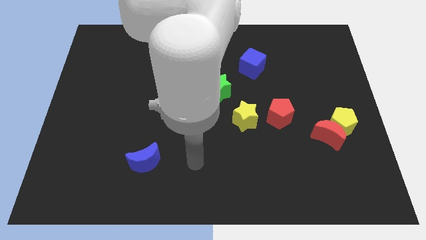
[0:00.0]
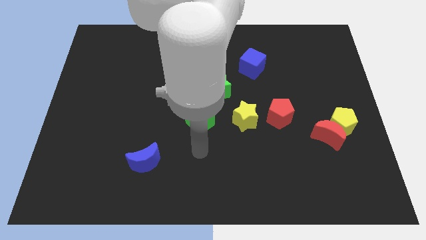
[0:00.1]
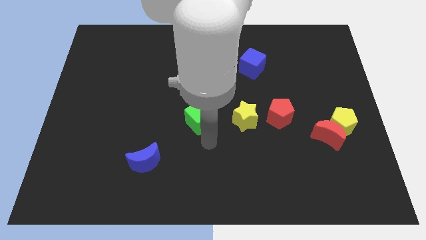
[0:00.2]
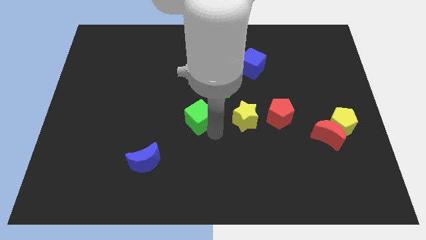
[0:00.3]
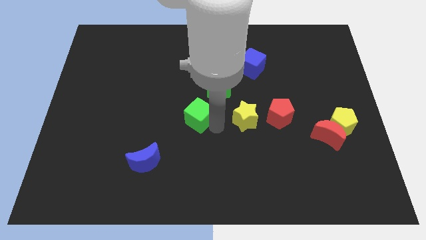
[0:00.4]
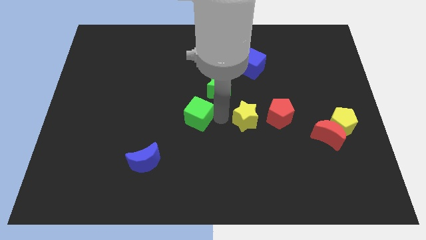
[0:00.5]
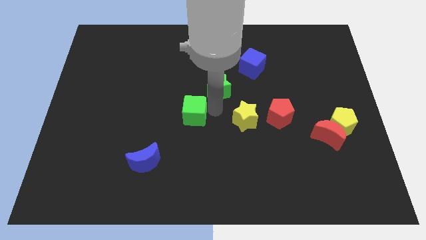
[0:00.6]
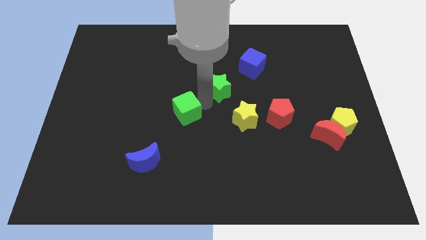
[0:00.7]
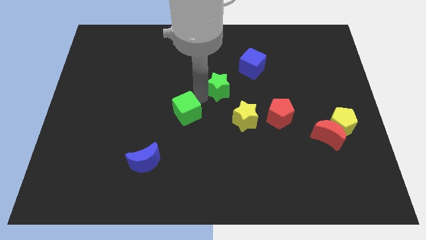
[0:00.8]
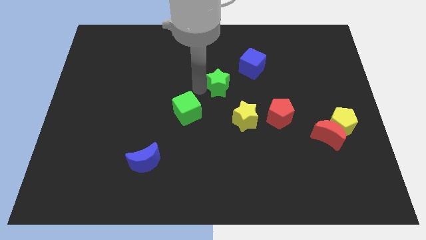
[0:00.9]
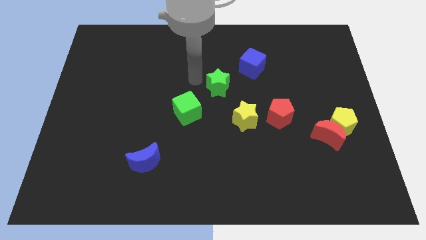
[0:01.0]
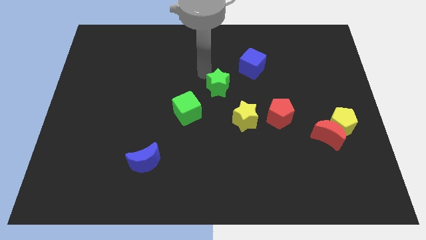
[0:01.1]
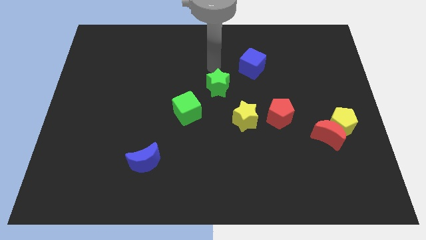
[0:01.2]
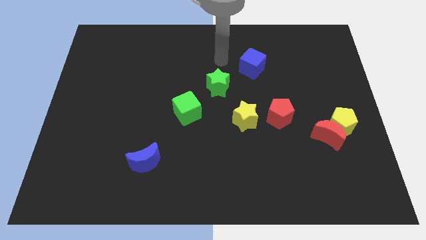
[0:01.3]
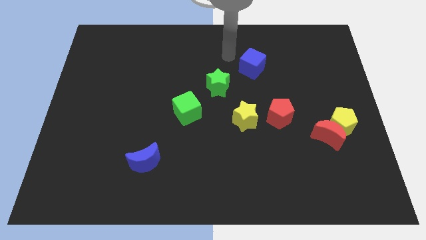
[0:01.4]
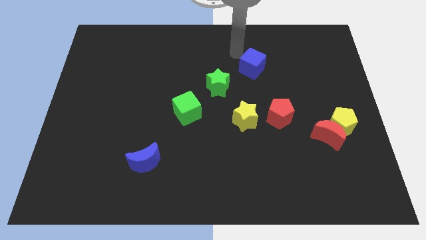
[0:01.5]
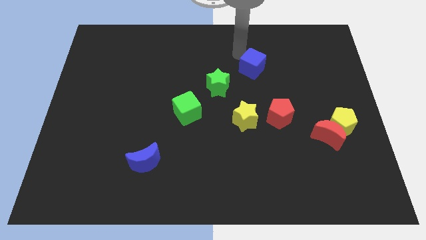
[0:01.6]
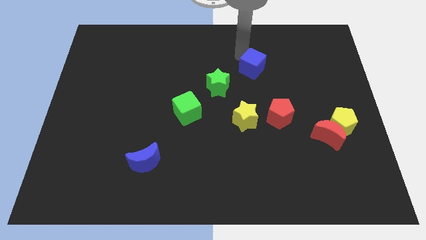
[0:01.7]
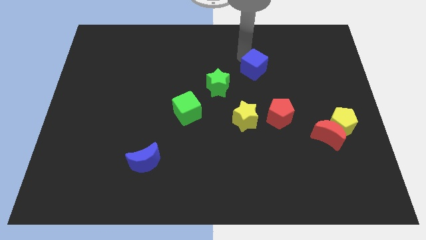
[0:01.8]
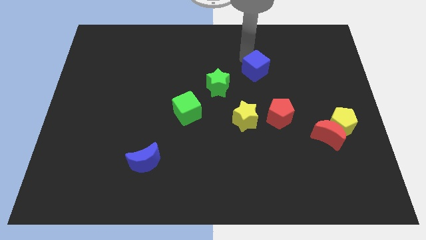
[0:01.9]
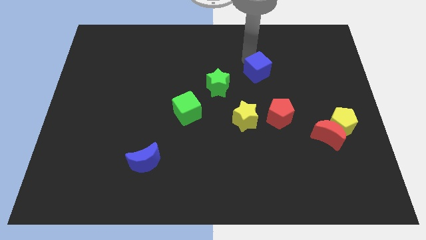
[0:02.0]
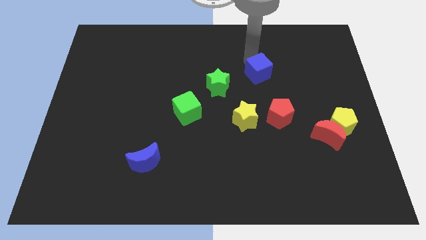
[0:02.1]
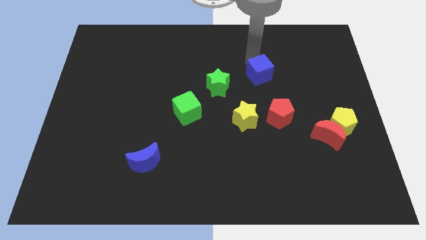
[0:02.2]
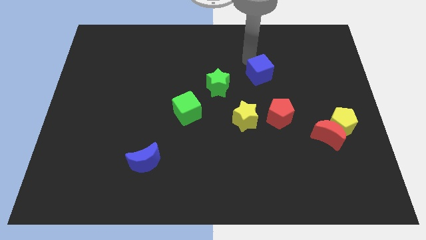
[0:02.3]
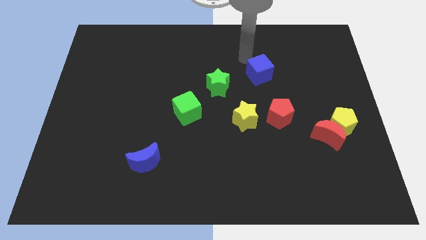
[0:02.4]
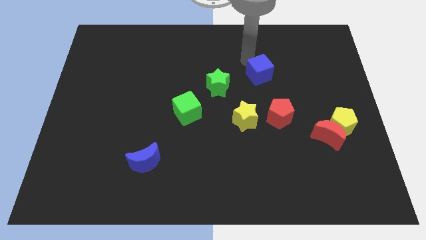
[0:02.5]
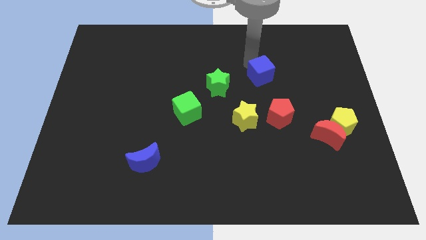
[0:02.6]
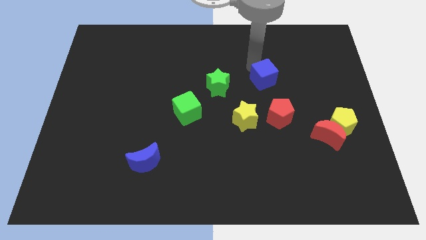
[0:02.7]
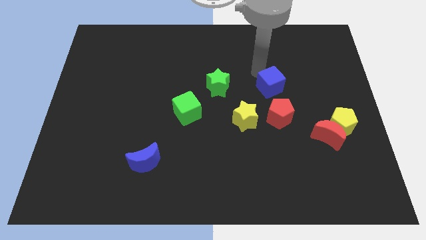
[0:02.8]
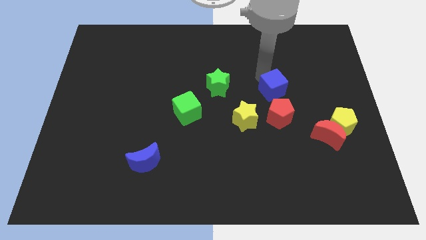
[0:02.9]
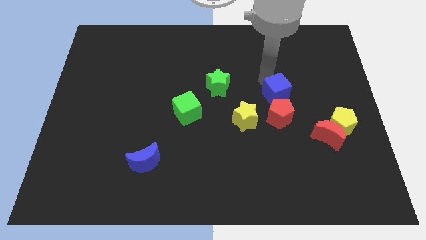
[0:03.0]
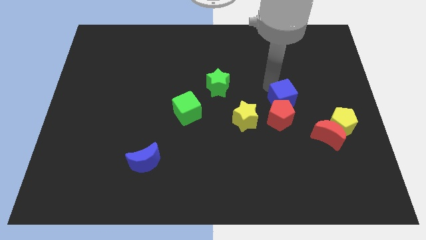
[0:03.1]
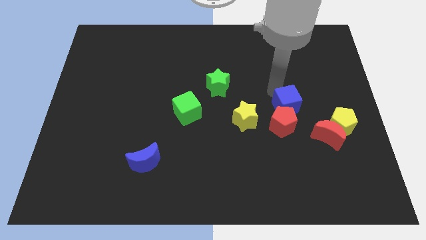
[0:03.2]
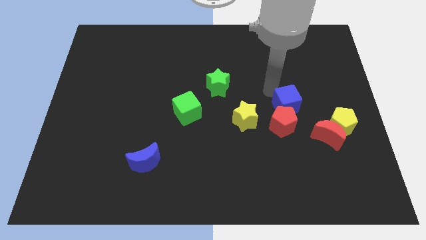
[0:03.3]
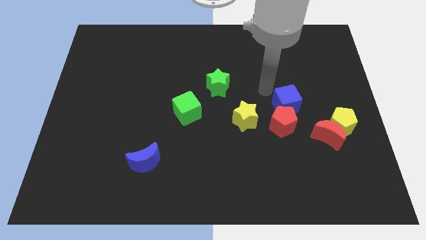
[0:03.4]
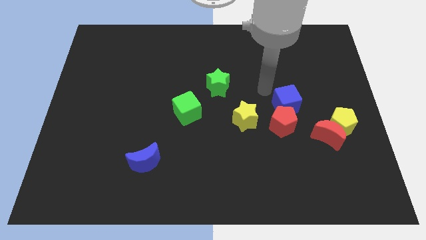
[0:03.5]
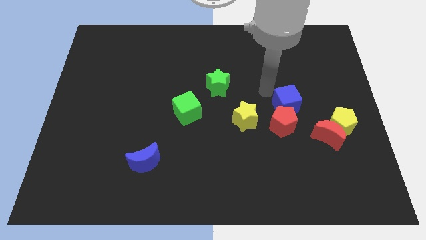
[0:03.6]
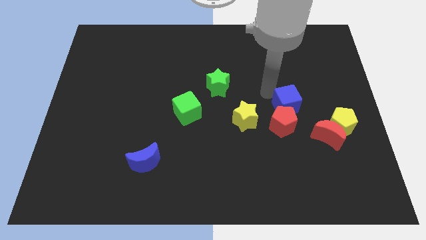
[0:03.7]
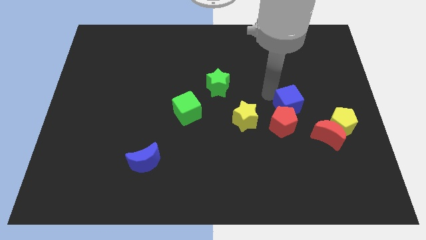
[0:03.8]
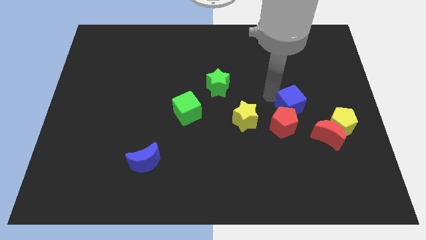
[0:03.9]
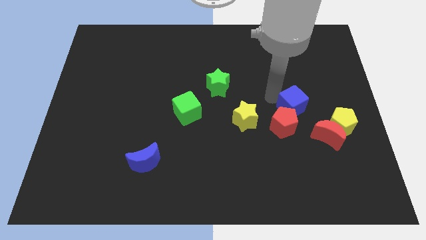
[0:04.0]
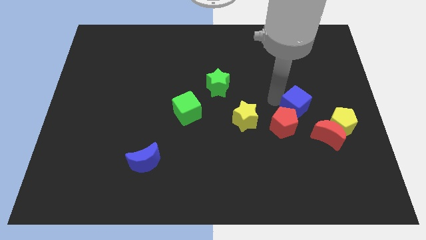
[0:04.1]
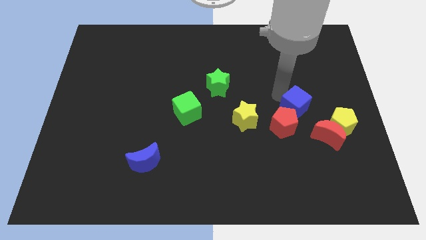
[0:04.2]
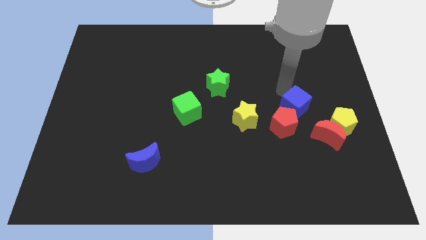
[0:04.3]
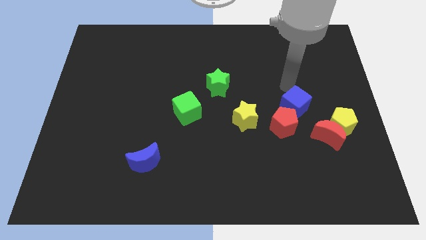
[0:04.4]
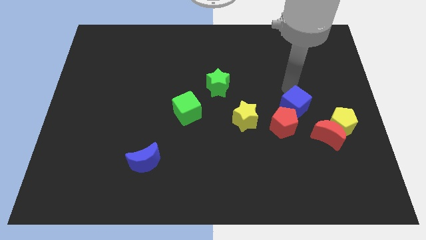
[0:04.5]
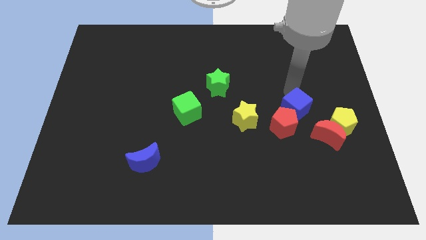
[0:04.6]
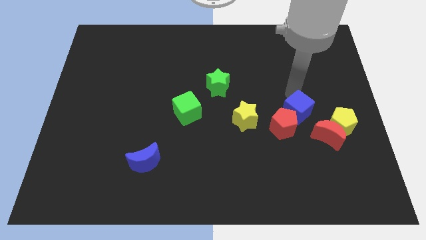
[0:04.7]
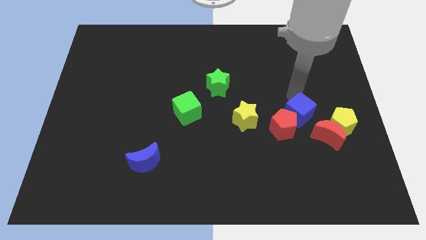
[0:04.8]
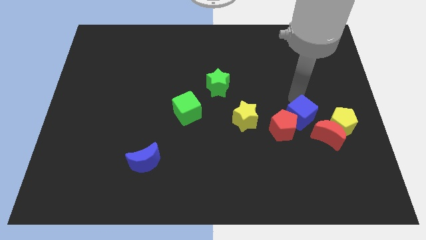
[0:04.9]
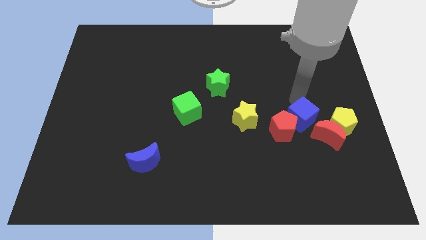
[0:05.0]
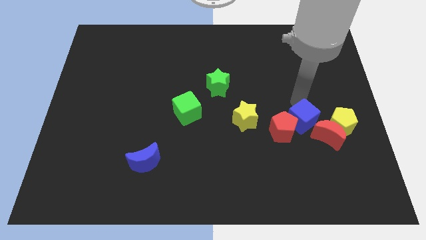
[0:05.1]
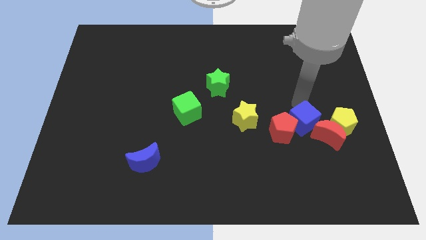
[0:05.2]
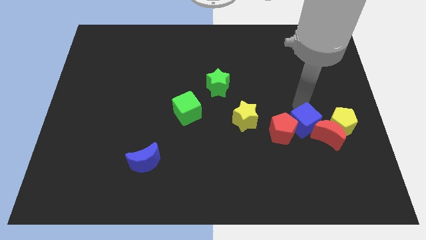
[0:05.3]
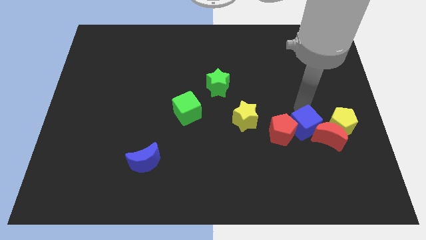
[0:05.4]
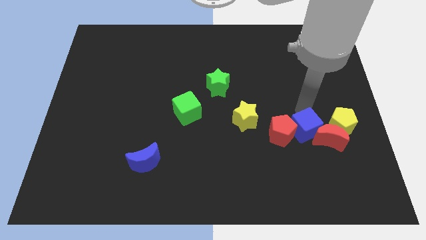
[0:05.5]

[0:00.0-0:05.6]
slide the blue cube to the bottom left side of the yellow pentagon

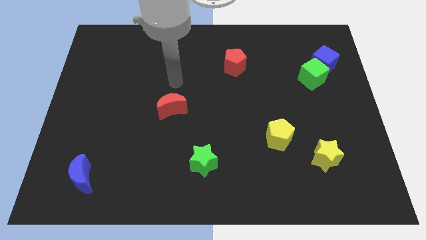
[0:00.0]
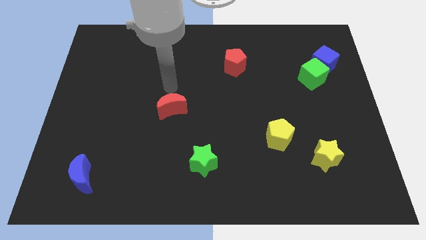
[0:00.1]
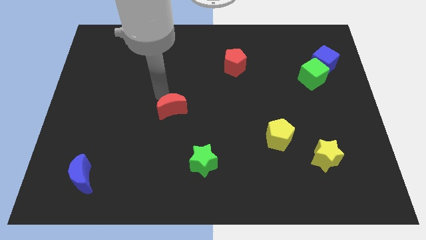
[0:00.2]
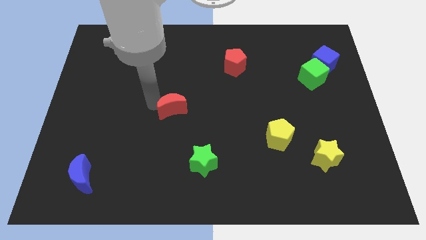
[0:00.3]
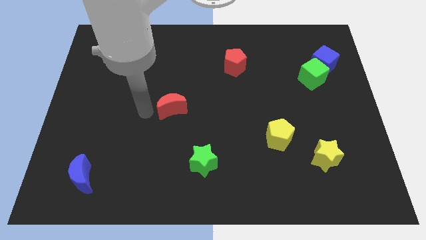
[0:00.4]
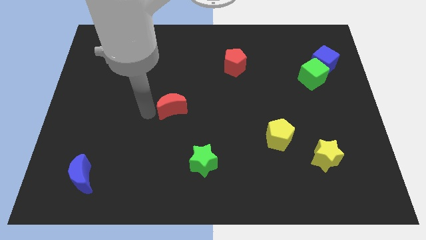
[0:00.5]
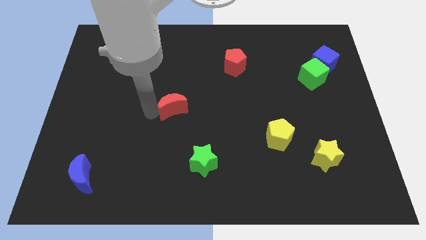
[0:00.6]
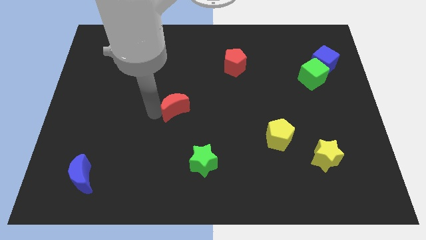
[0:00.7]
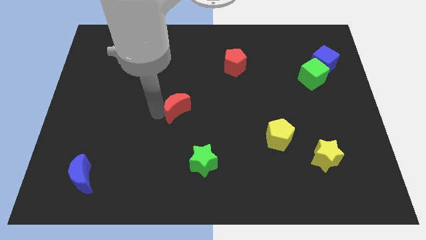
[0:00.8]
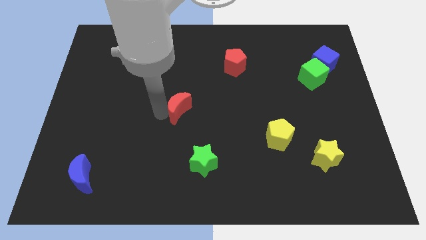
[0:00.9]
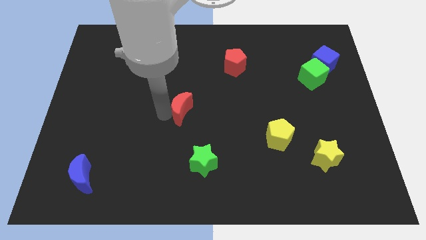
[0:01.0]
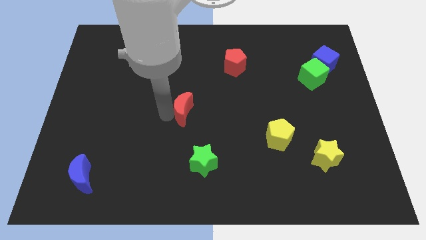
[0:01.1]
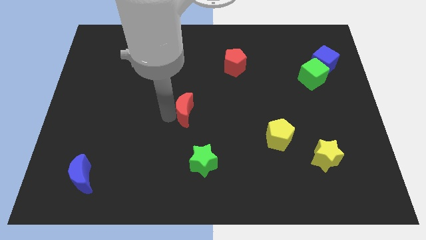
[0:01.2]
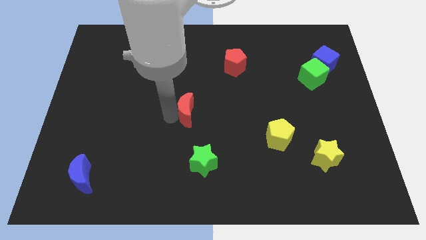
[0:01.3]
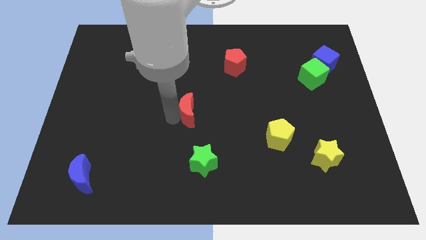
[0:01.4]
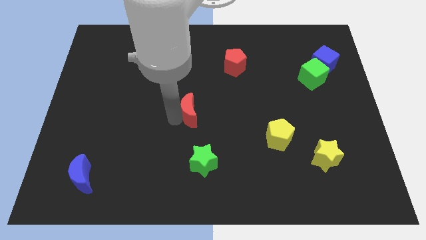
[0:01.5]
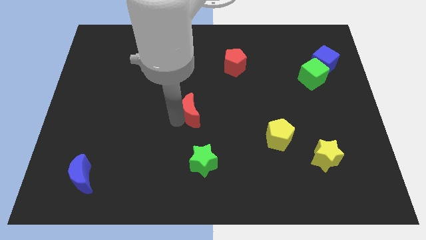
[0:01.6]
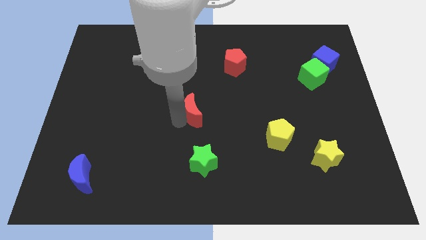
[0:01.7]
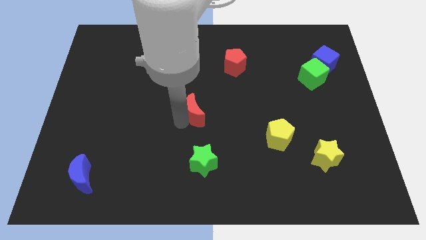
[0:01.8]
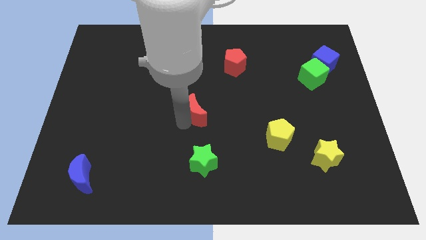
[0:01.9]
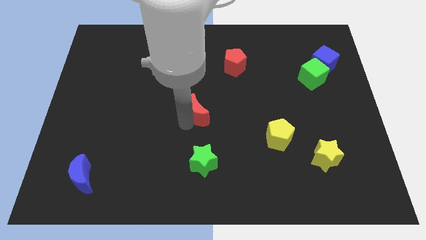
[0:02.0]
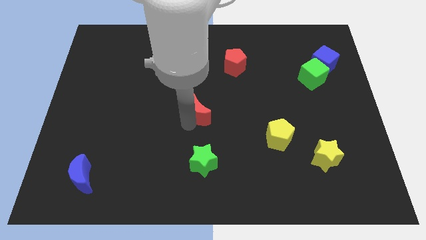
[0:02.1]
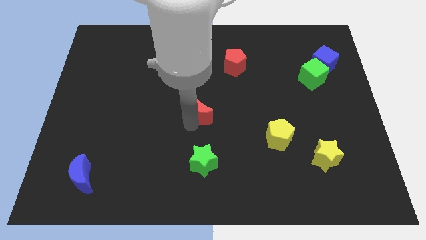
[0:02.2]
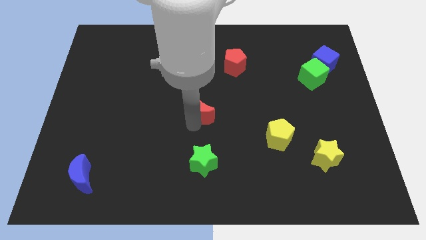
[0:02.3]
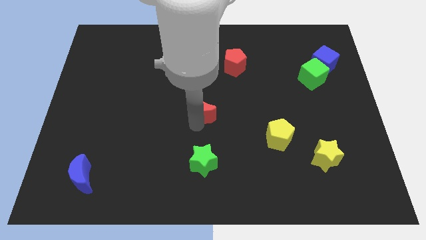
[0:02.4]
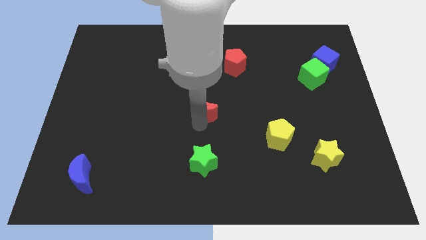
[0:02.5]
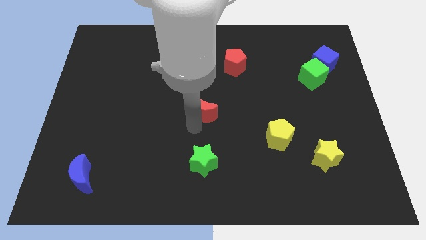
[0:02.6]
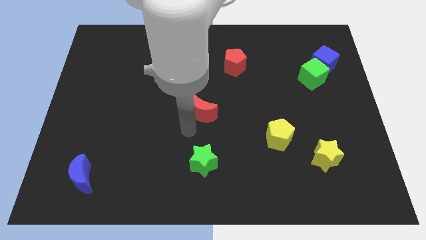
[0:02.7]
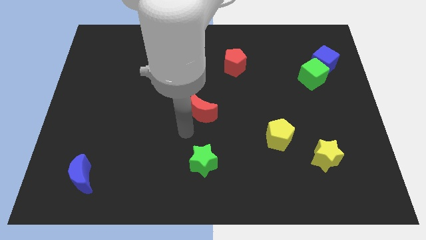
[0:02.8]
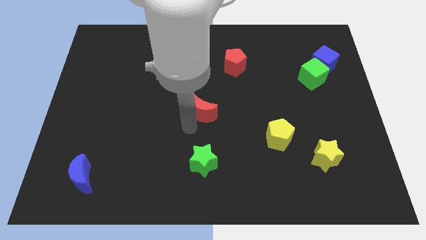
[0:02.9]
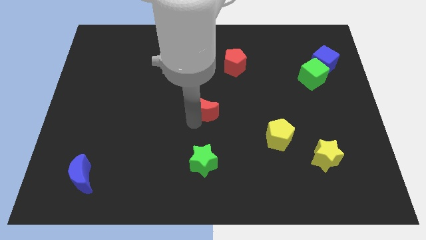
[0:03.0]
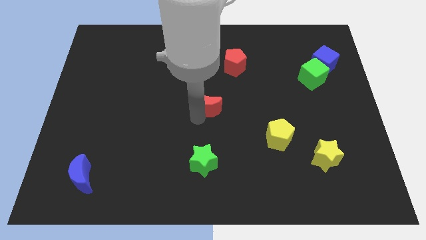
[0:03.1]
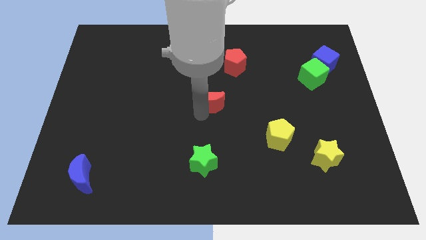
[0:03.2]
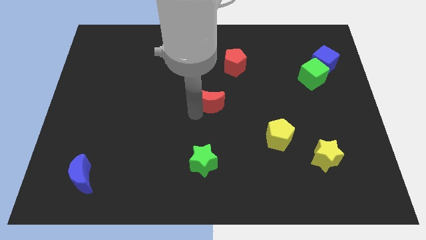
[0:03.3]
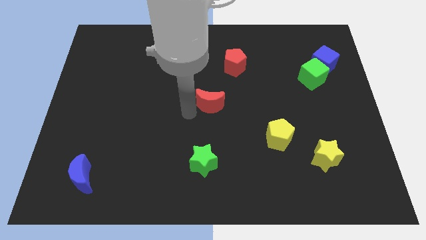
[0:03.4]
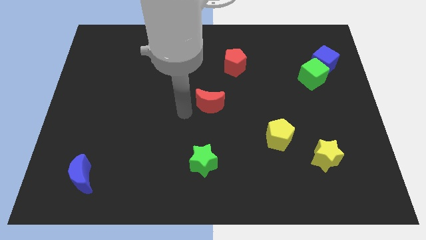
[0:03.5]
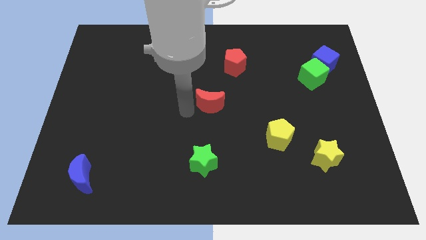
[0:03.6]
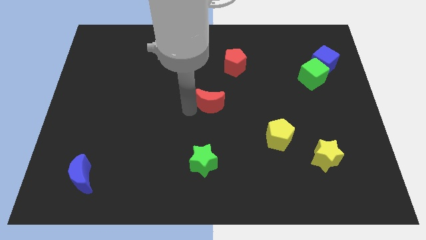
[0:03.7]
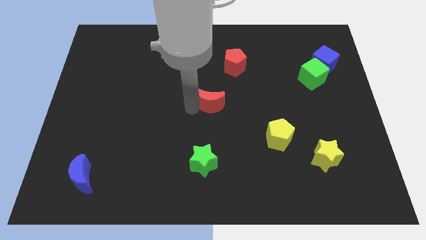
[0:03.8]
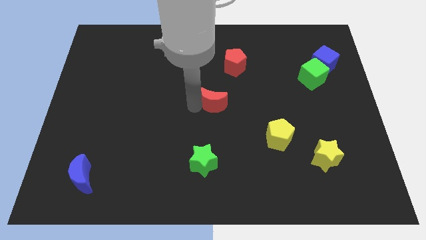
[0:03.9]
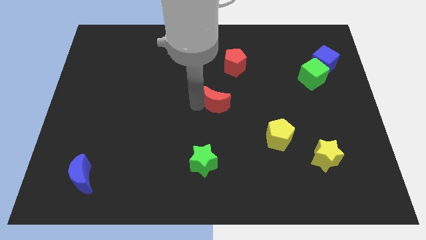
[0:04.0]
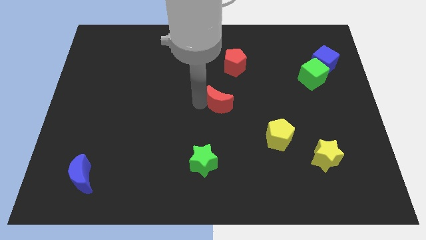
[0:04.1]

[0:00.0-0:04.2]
push the red moon to the bottom of the red pentagon
